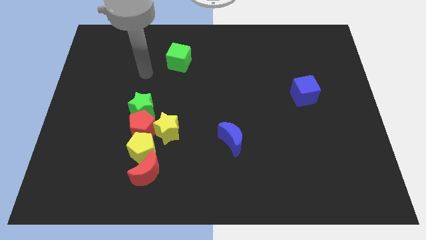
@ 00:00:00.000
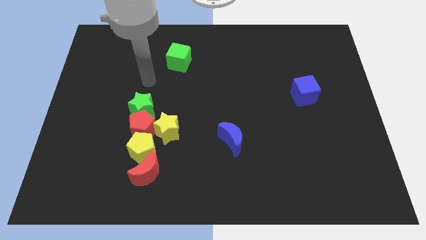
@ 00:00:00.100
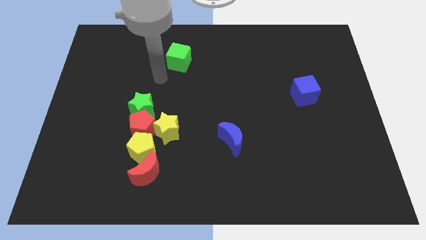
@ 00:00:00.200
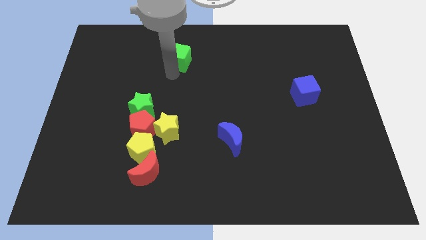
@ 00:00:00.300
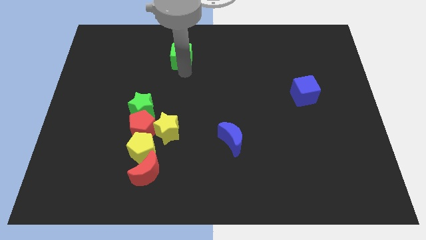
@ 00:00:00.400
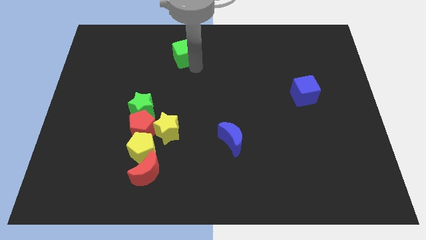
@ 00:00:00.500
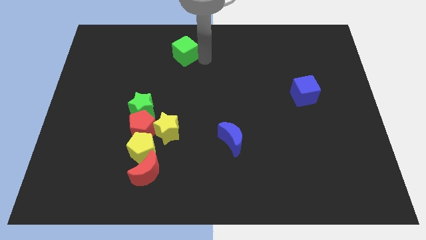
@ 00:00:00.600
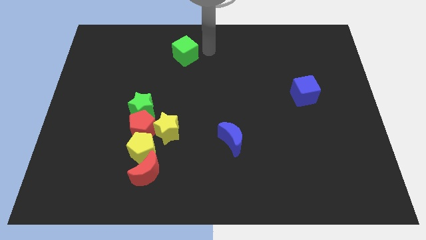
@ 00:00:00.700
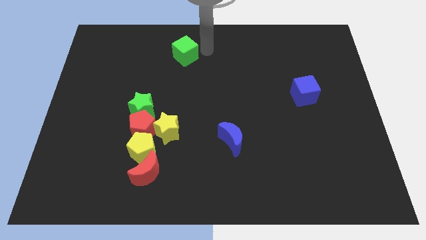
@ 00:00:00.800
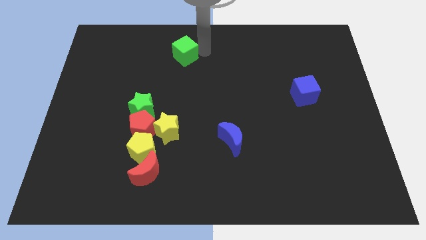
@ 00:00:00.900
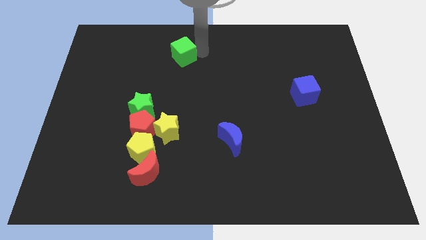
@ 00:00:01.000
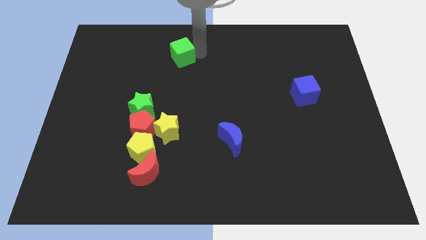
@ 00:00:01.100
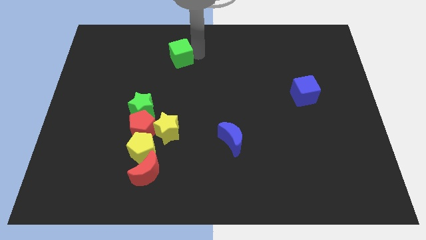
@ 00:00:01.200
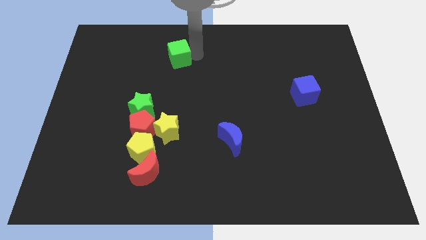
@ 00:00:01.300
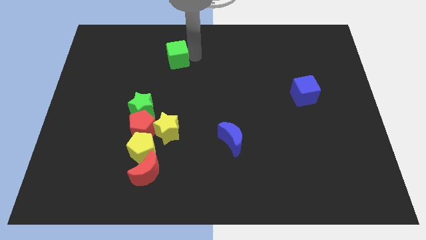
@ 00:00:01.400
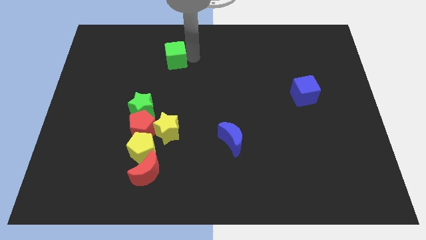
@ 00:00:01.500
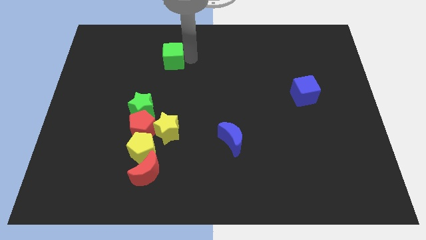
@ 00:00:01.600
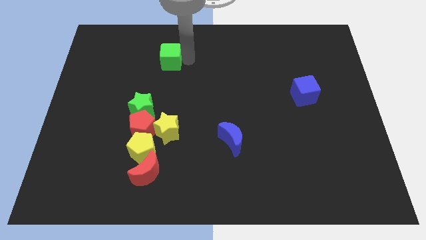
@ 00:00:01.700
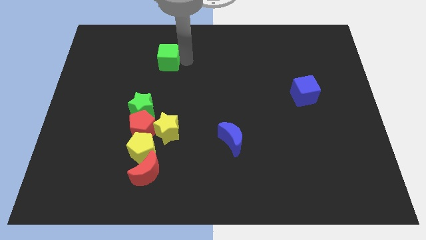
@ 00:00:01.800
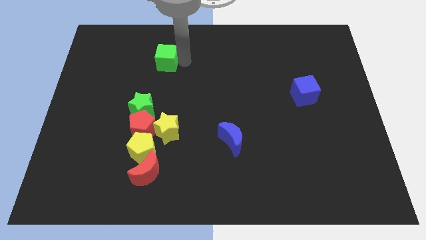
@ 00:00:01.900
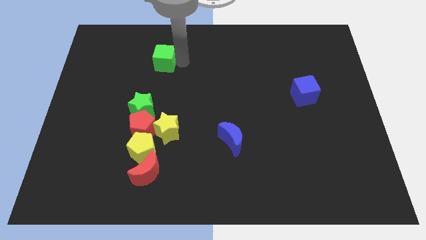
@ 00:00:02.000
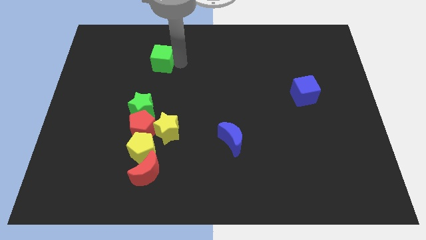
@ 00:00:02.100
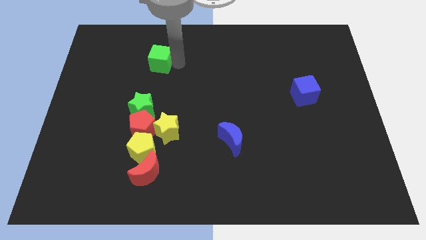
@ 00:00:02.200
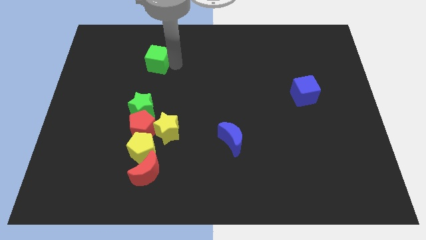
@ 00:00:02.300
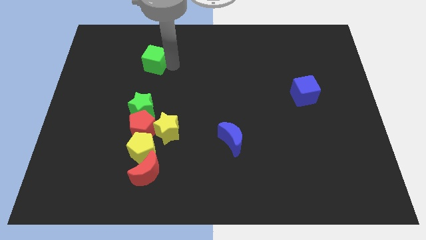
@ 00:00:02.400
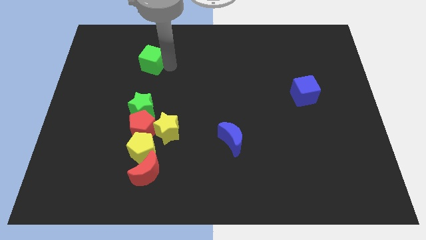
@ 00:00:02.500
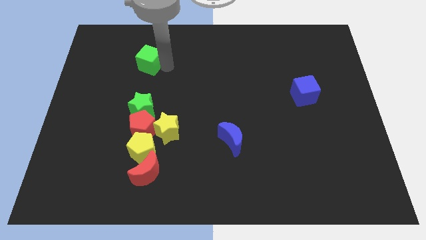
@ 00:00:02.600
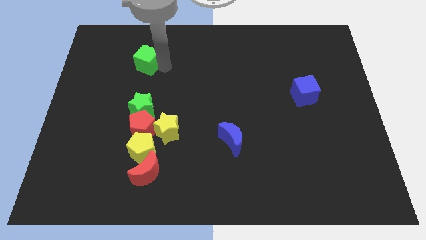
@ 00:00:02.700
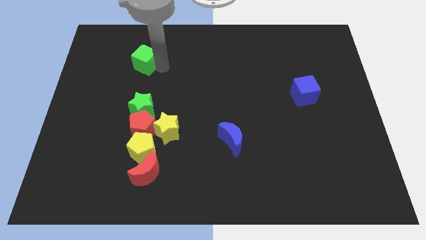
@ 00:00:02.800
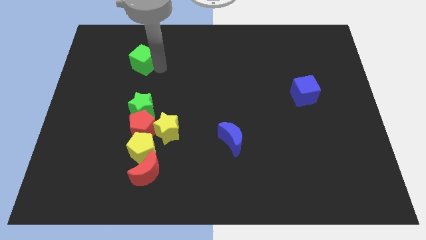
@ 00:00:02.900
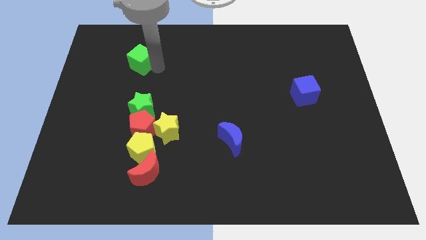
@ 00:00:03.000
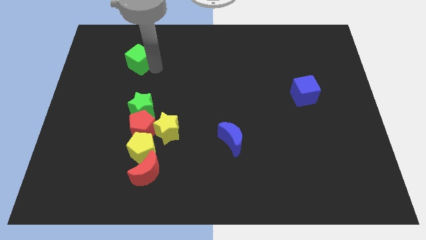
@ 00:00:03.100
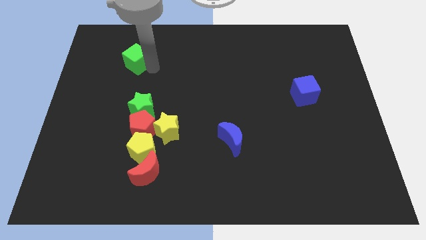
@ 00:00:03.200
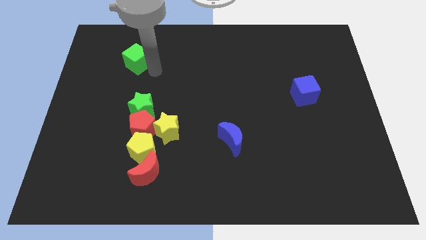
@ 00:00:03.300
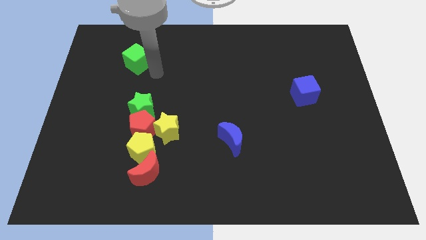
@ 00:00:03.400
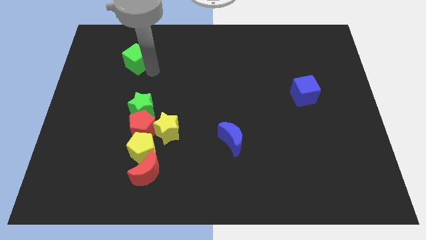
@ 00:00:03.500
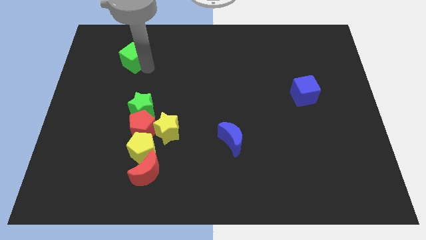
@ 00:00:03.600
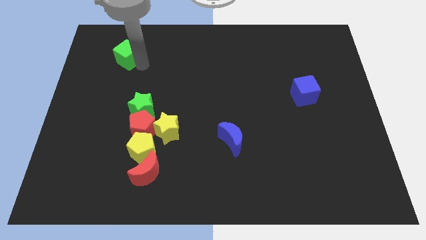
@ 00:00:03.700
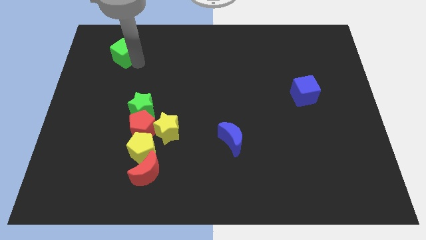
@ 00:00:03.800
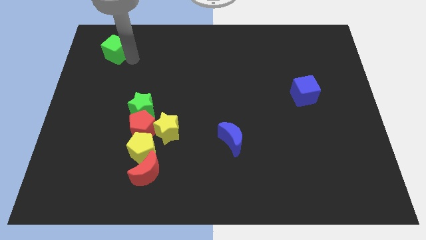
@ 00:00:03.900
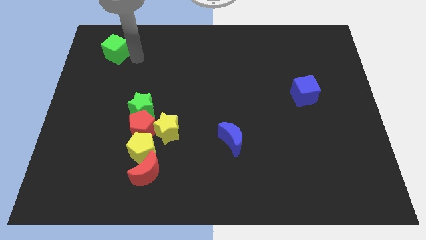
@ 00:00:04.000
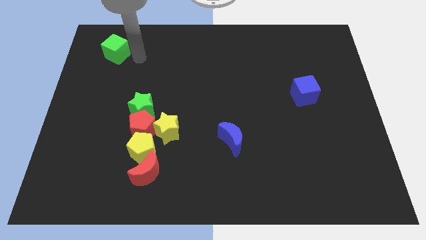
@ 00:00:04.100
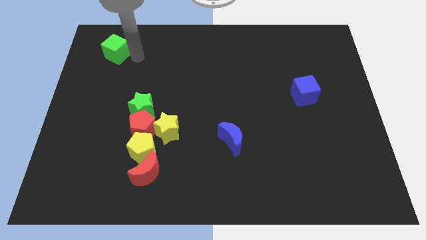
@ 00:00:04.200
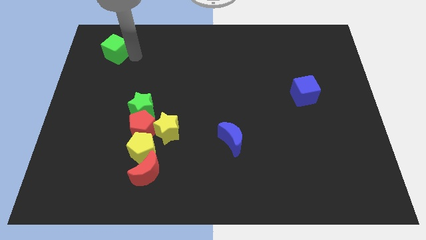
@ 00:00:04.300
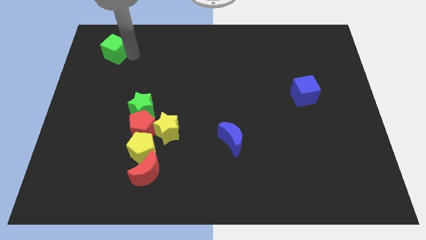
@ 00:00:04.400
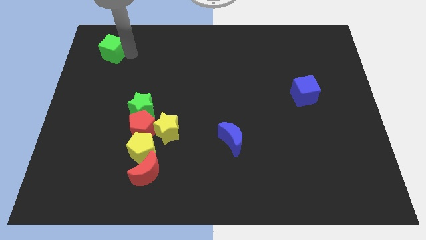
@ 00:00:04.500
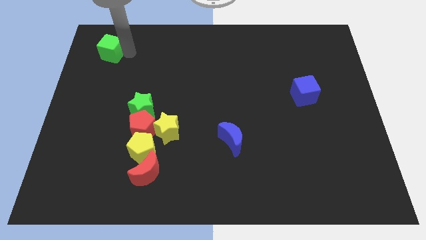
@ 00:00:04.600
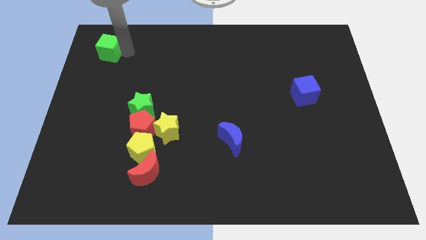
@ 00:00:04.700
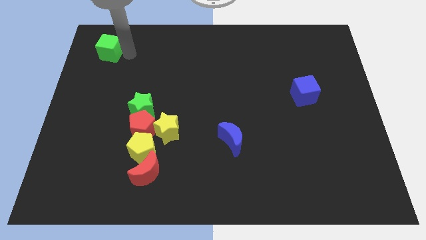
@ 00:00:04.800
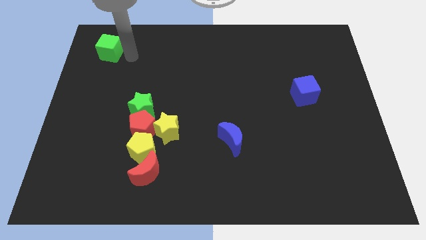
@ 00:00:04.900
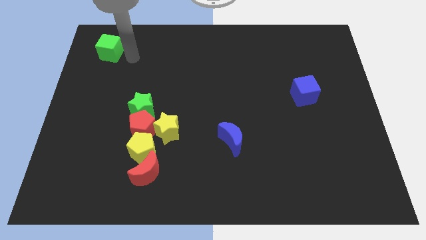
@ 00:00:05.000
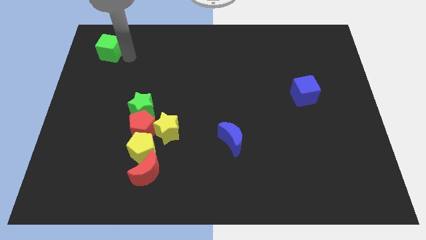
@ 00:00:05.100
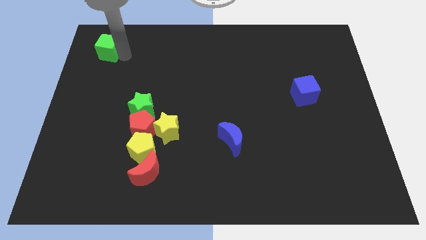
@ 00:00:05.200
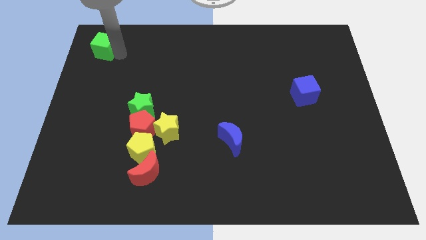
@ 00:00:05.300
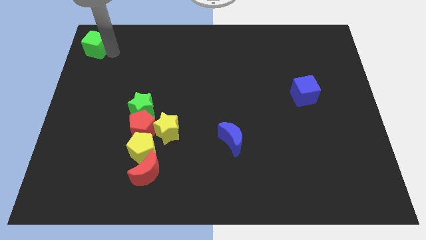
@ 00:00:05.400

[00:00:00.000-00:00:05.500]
put the green cube to the upper left corner
